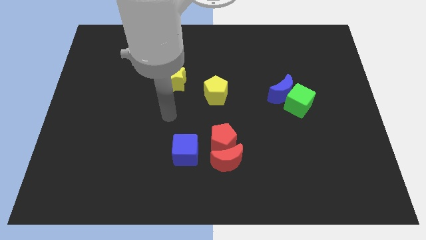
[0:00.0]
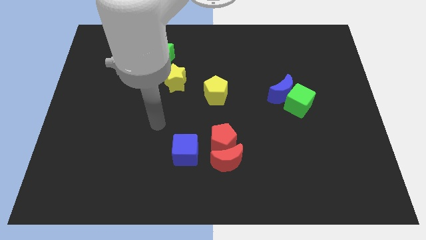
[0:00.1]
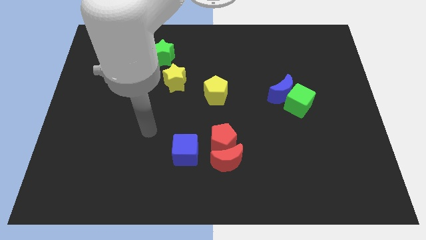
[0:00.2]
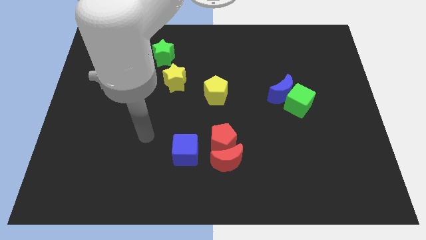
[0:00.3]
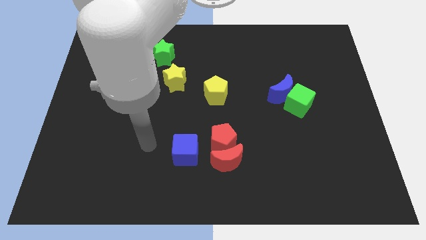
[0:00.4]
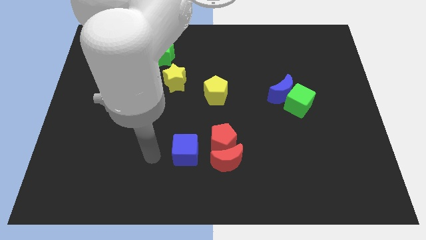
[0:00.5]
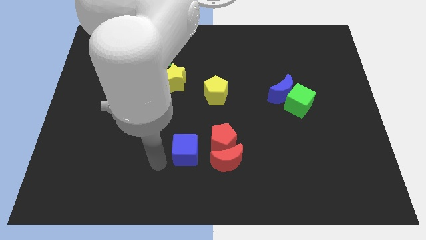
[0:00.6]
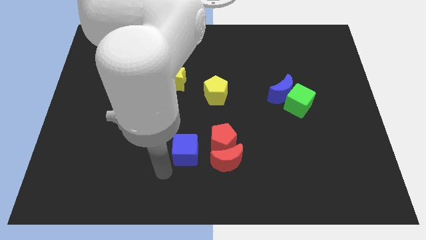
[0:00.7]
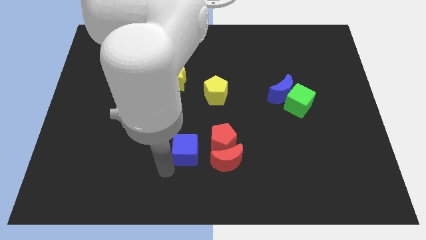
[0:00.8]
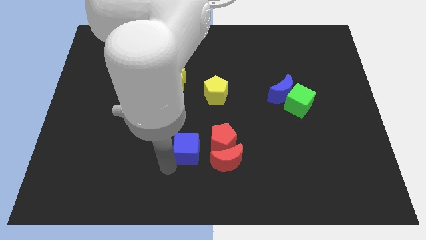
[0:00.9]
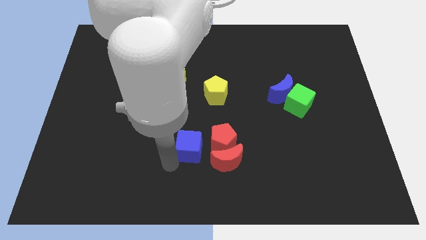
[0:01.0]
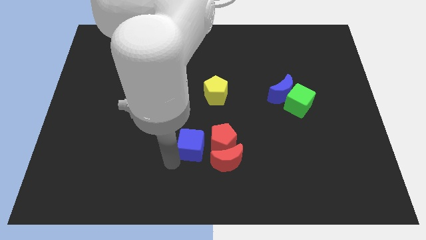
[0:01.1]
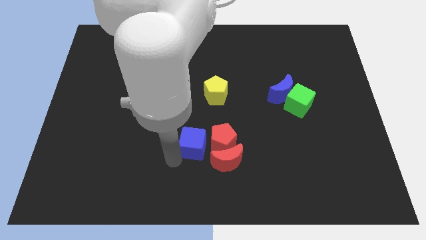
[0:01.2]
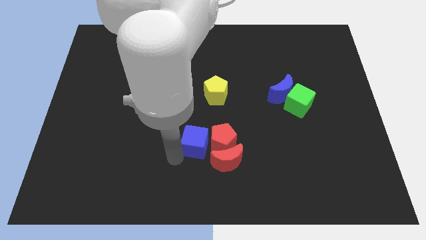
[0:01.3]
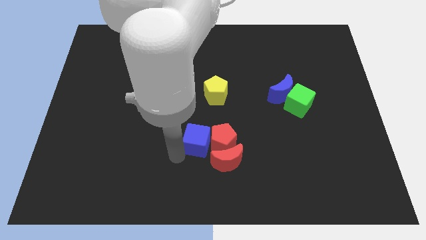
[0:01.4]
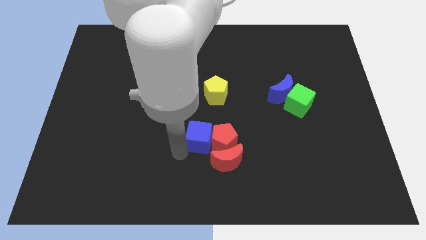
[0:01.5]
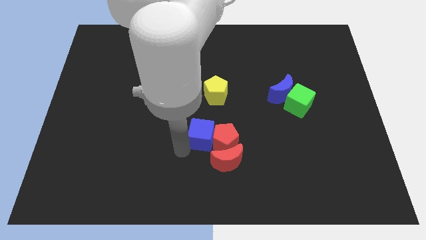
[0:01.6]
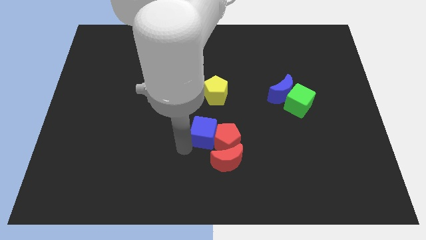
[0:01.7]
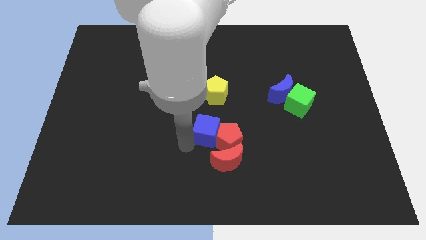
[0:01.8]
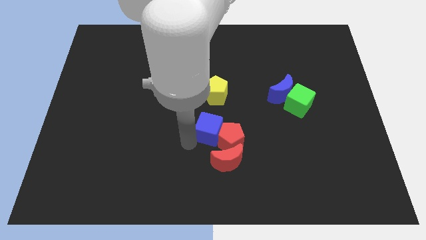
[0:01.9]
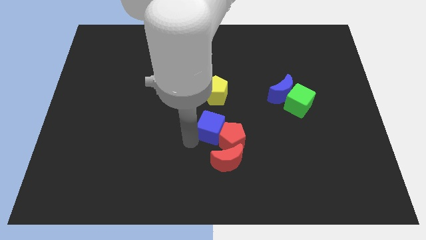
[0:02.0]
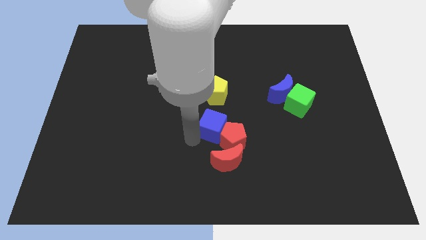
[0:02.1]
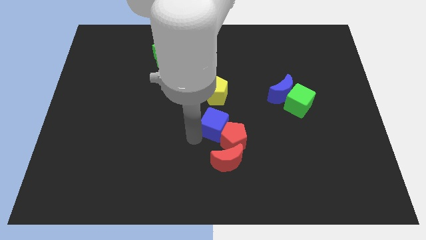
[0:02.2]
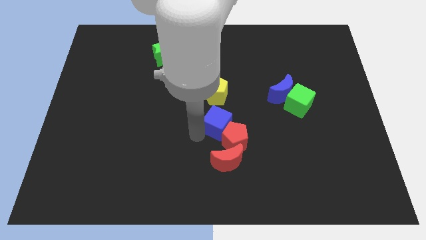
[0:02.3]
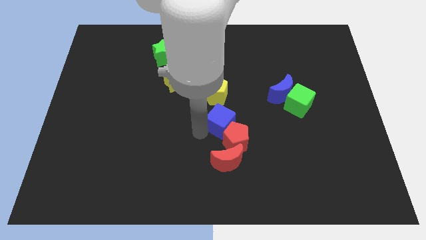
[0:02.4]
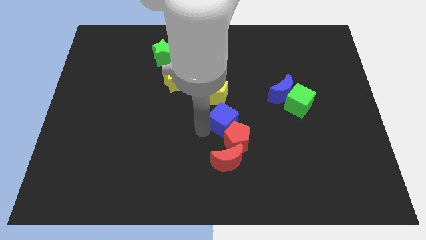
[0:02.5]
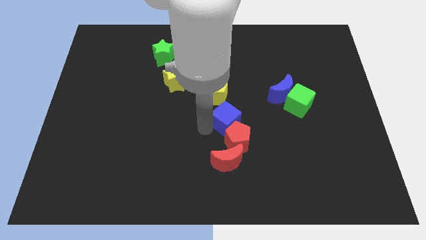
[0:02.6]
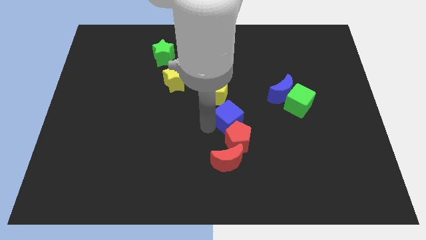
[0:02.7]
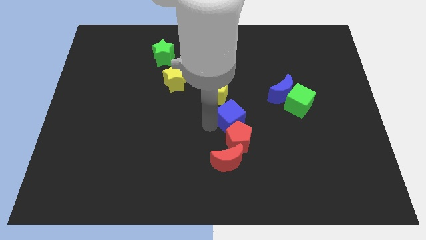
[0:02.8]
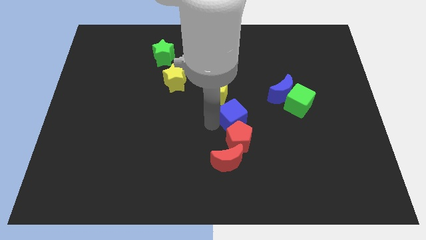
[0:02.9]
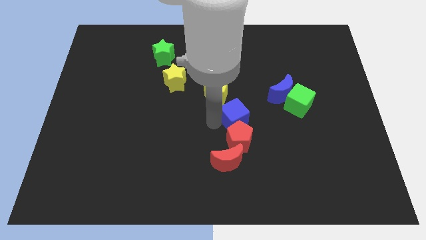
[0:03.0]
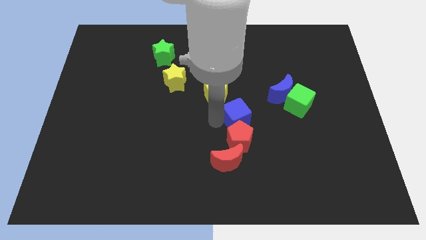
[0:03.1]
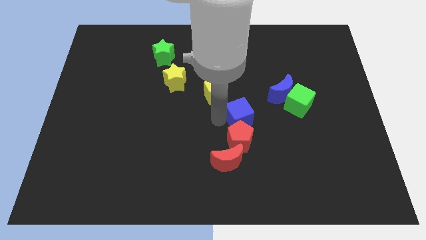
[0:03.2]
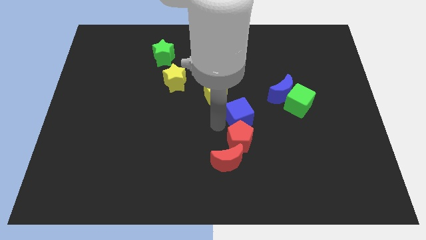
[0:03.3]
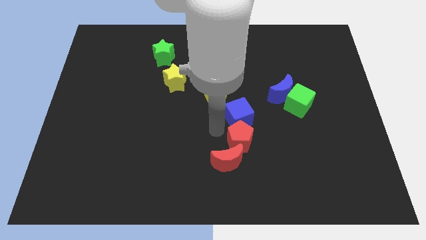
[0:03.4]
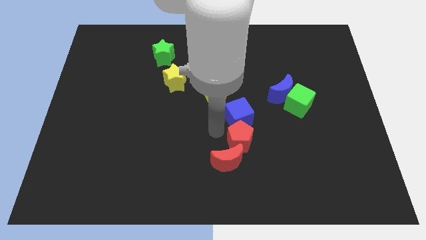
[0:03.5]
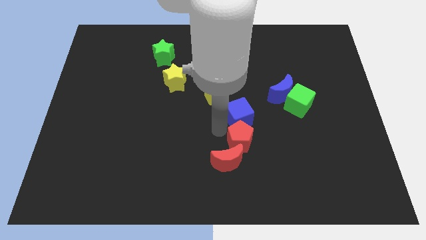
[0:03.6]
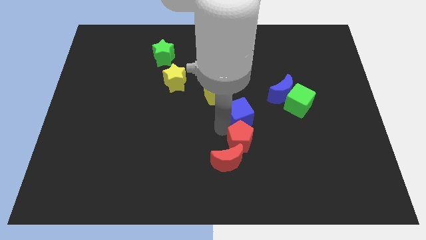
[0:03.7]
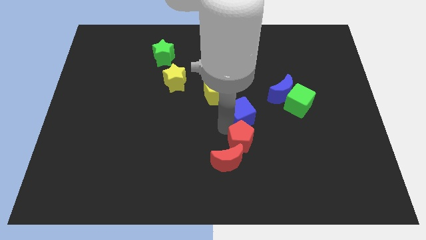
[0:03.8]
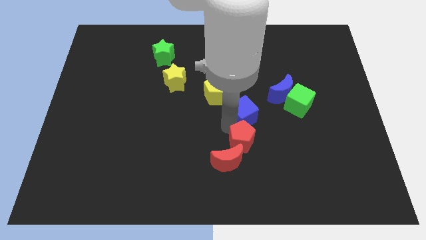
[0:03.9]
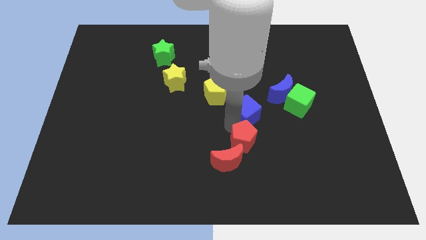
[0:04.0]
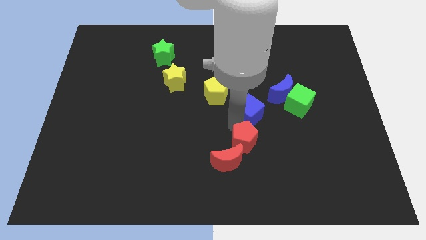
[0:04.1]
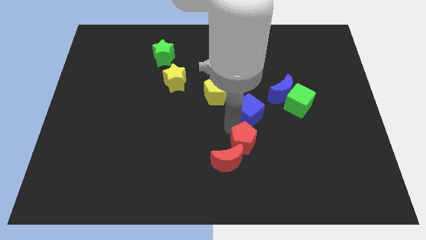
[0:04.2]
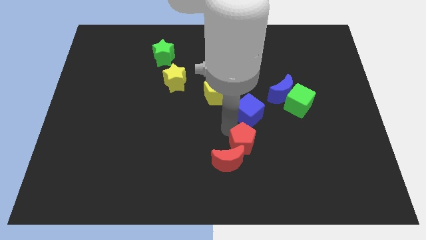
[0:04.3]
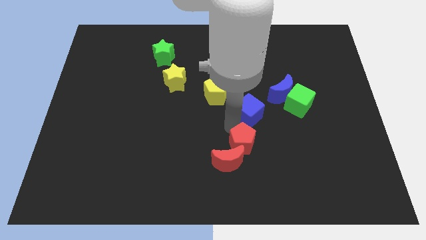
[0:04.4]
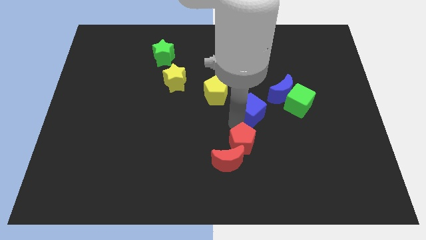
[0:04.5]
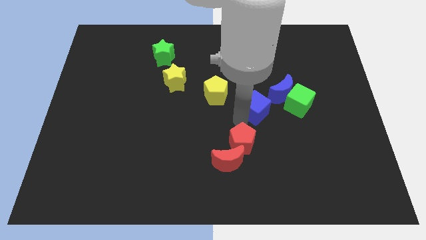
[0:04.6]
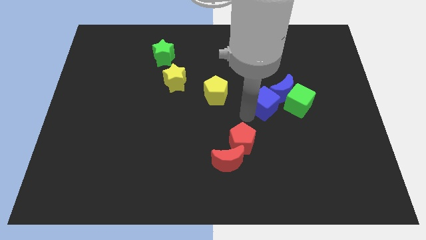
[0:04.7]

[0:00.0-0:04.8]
slide the blue cube towards the blue moon

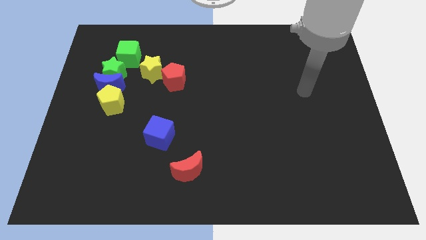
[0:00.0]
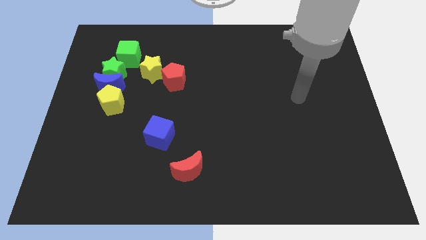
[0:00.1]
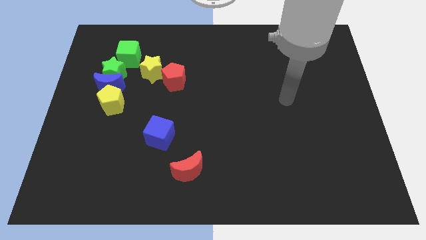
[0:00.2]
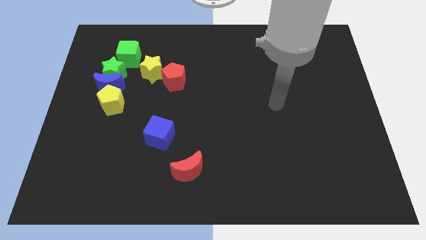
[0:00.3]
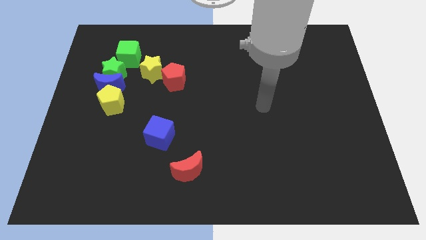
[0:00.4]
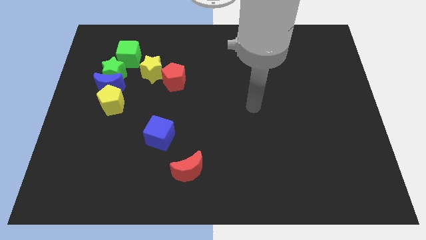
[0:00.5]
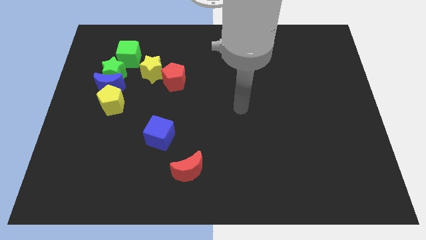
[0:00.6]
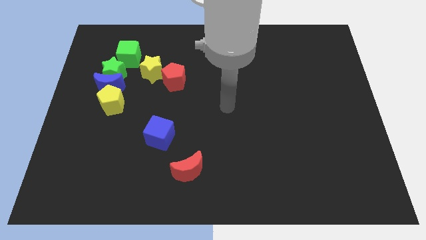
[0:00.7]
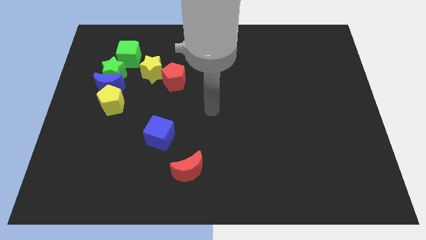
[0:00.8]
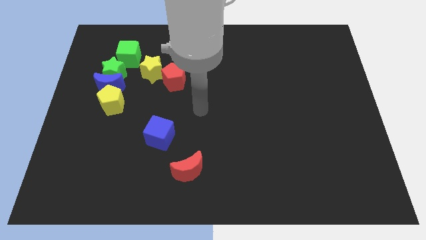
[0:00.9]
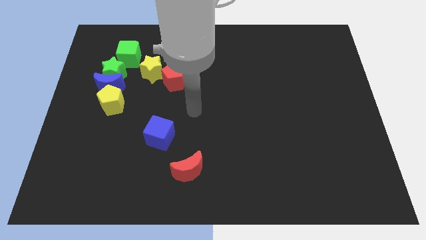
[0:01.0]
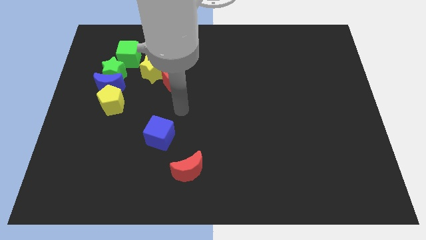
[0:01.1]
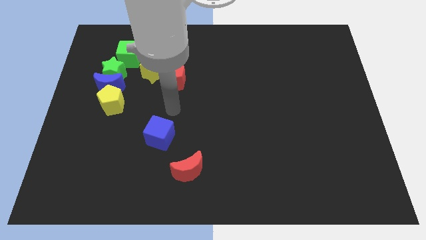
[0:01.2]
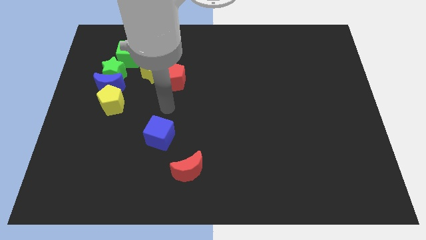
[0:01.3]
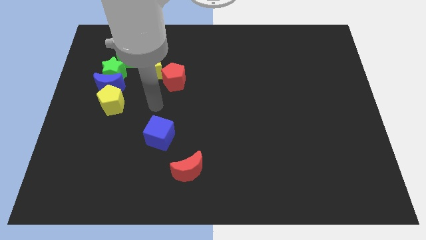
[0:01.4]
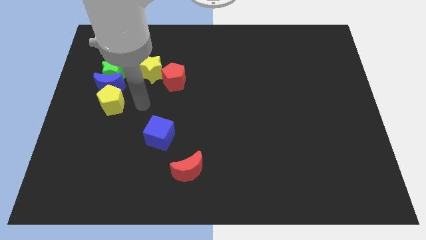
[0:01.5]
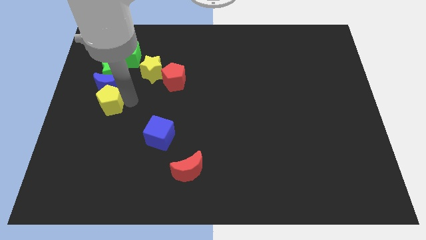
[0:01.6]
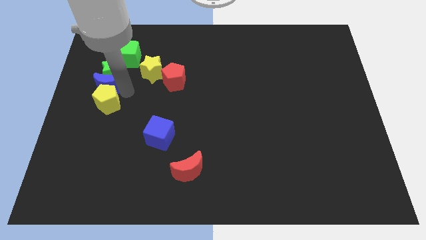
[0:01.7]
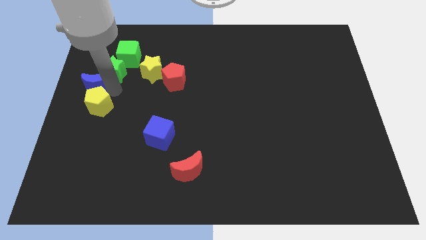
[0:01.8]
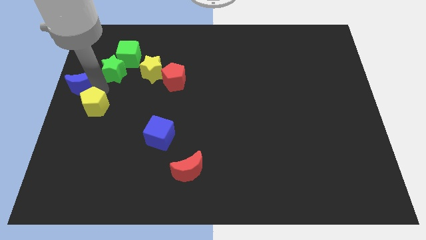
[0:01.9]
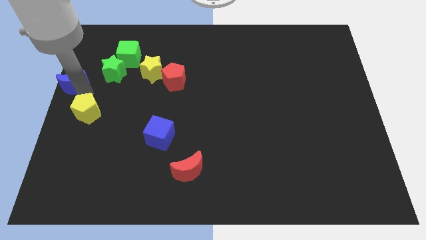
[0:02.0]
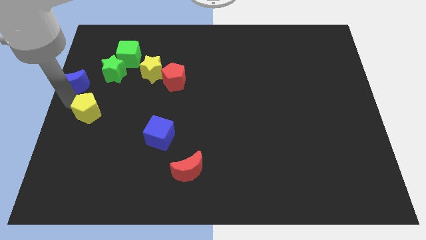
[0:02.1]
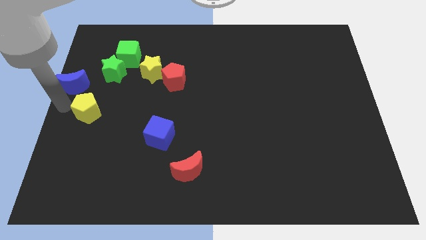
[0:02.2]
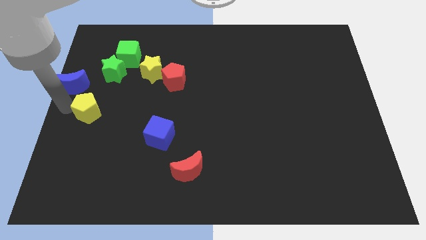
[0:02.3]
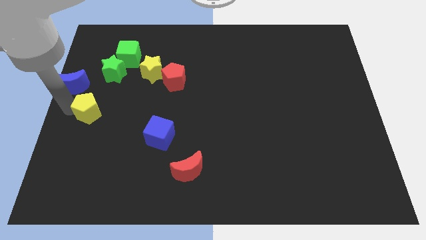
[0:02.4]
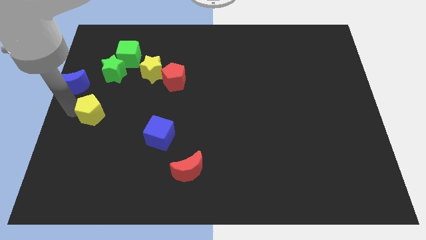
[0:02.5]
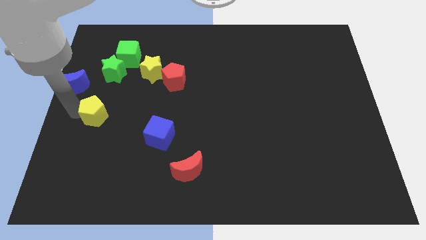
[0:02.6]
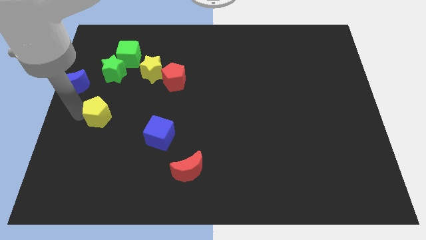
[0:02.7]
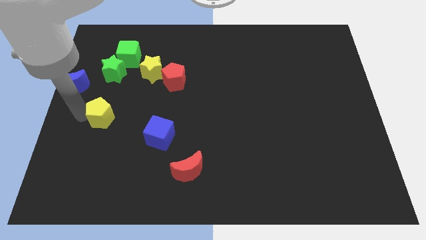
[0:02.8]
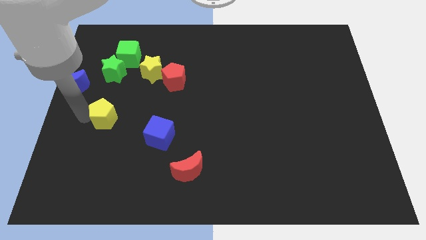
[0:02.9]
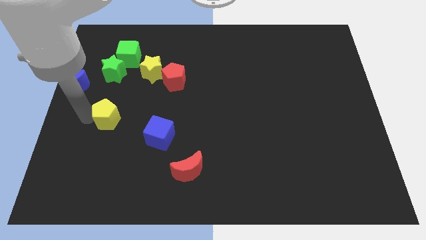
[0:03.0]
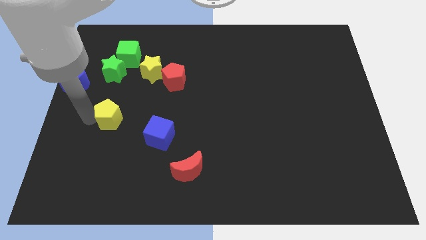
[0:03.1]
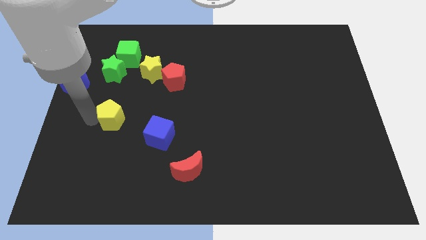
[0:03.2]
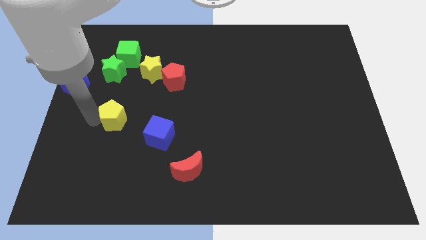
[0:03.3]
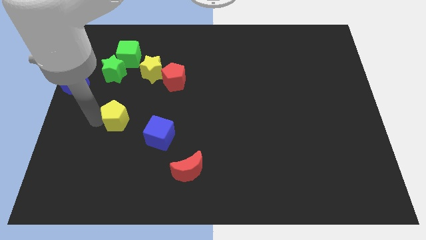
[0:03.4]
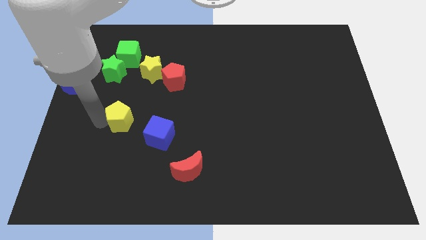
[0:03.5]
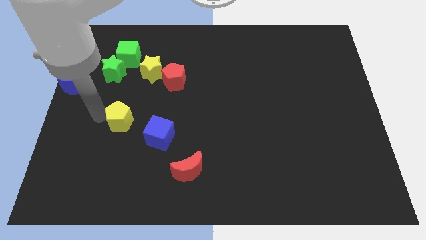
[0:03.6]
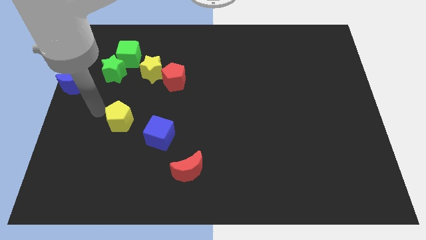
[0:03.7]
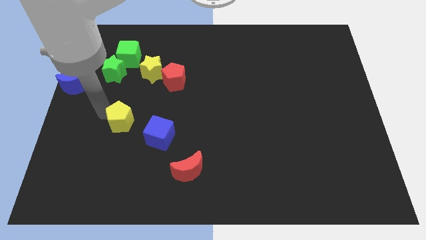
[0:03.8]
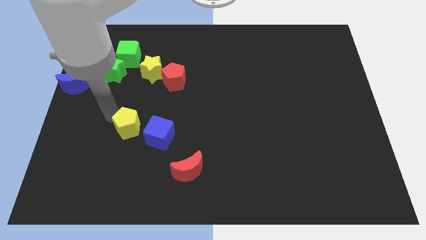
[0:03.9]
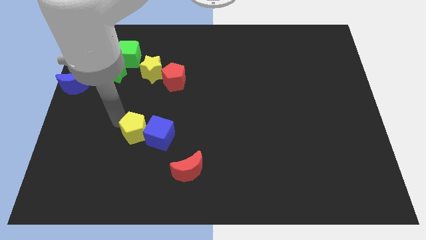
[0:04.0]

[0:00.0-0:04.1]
slide the yellow pentagon next to the blue cube
